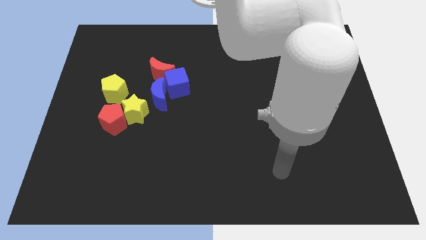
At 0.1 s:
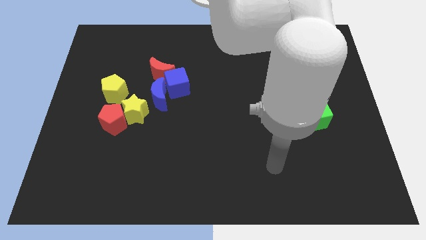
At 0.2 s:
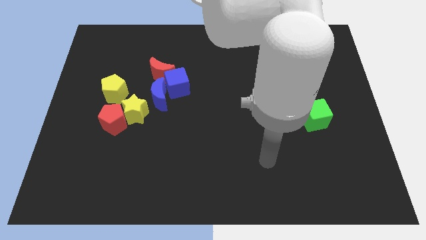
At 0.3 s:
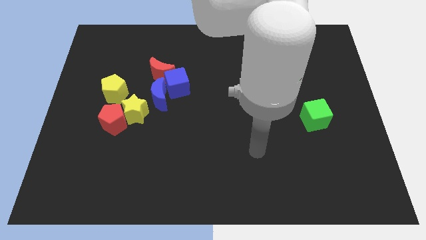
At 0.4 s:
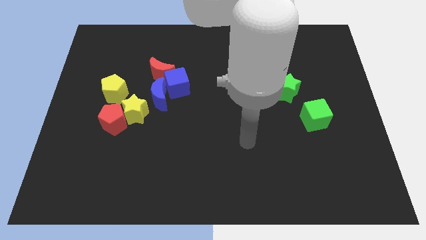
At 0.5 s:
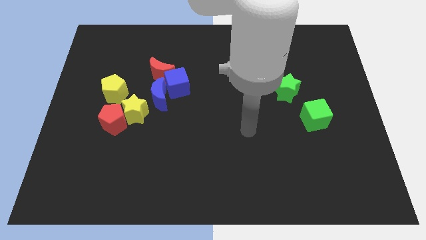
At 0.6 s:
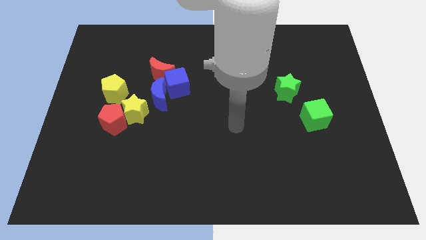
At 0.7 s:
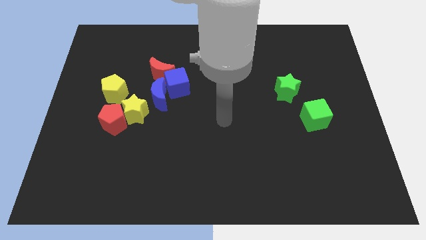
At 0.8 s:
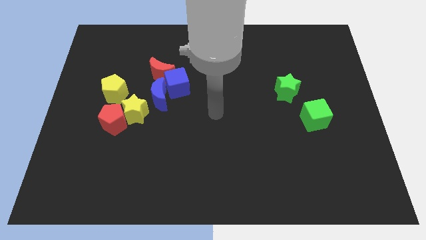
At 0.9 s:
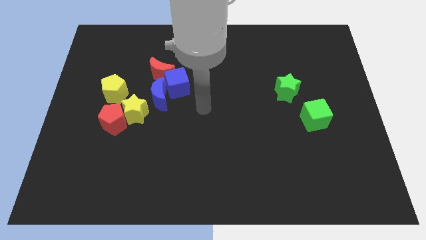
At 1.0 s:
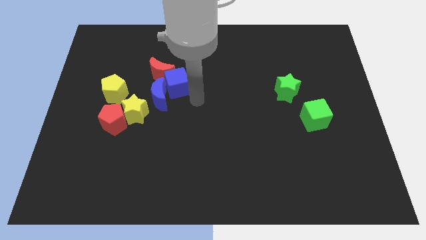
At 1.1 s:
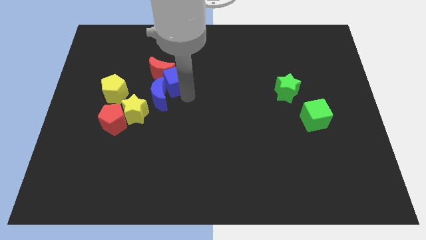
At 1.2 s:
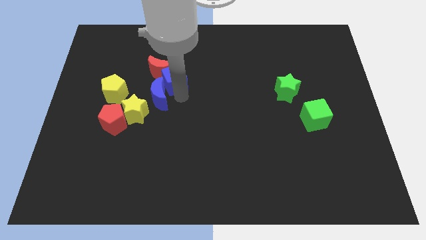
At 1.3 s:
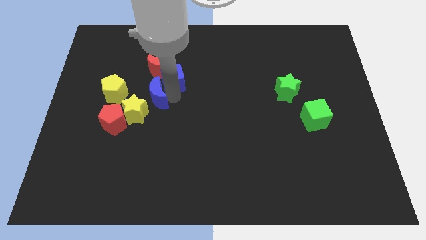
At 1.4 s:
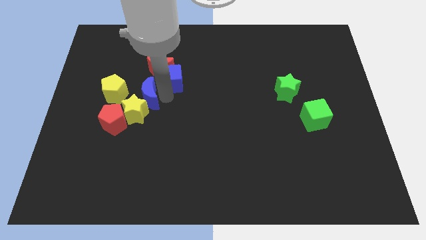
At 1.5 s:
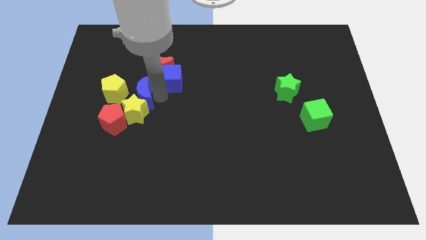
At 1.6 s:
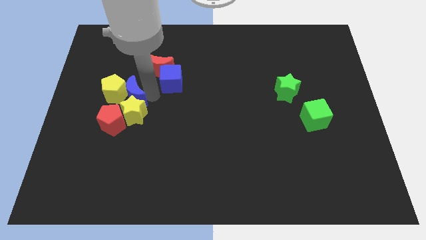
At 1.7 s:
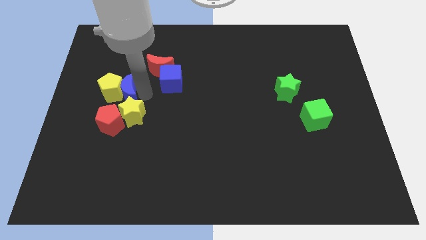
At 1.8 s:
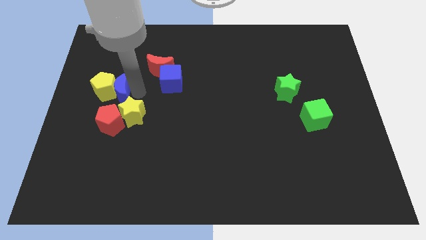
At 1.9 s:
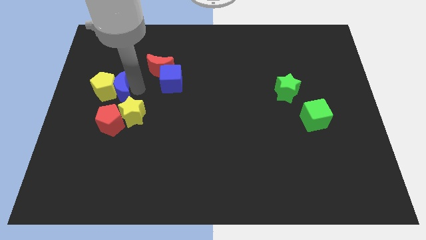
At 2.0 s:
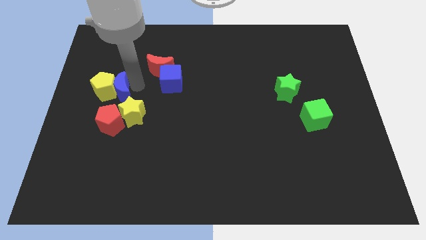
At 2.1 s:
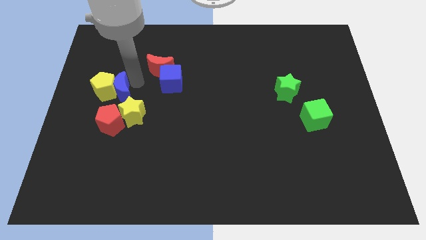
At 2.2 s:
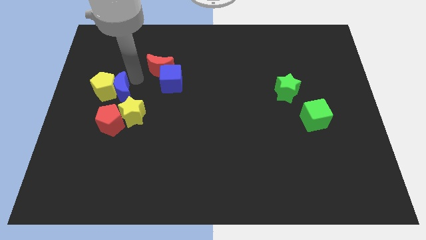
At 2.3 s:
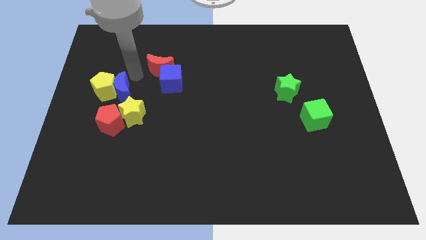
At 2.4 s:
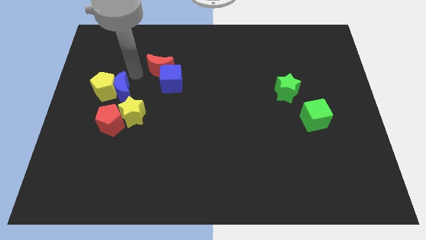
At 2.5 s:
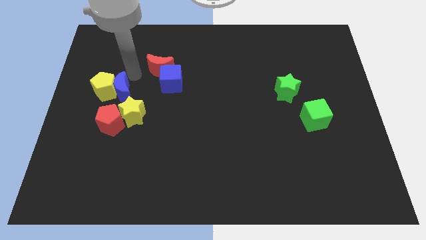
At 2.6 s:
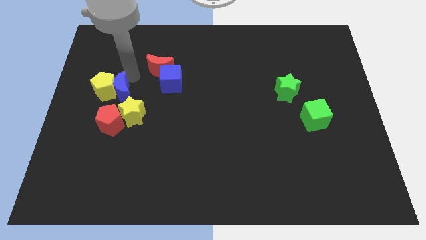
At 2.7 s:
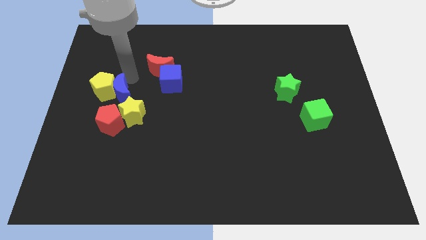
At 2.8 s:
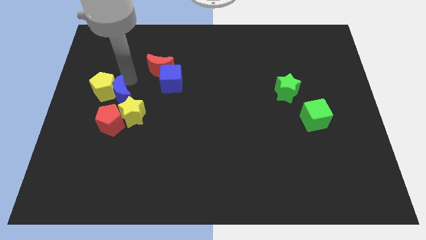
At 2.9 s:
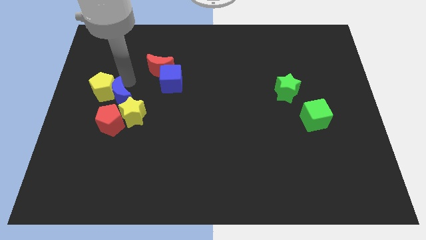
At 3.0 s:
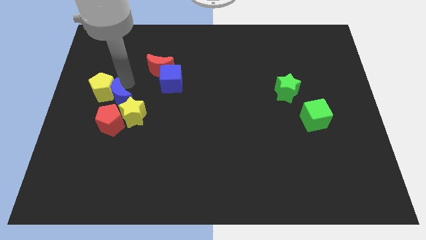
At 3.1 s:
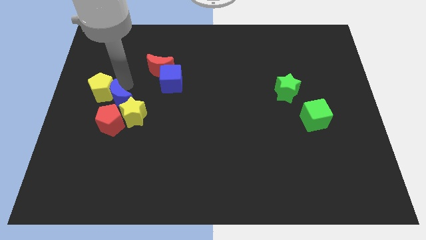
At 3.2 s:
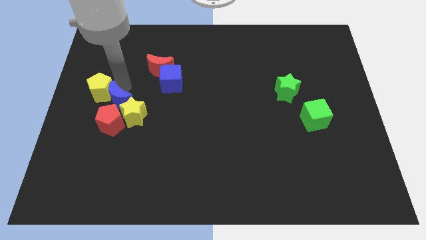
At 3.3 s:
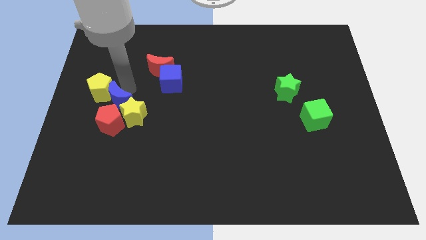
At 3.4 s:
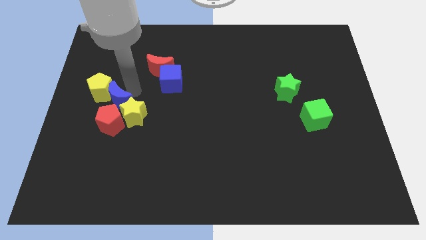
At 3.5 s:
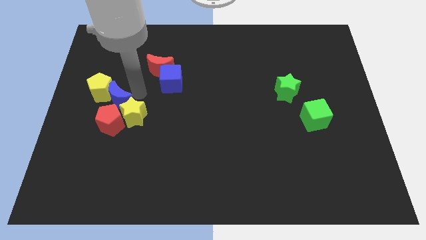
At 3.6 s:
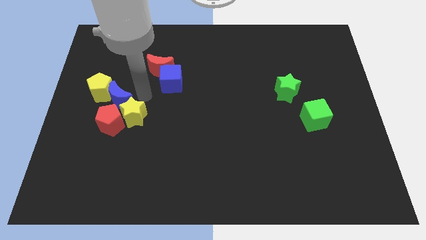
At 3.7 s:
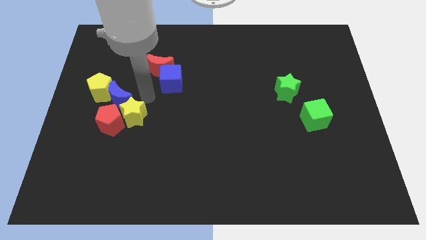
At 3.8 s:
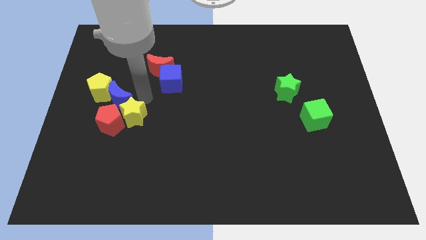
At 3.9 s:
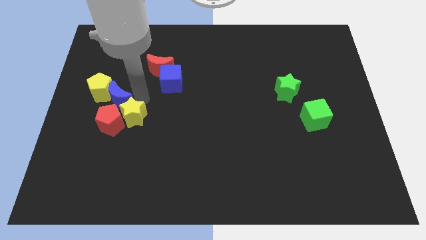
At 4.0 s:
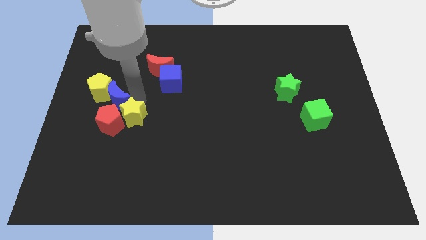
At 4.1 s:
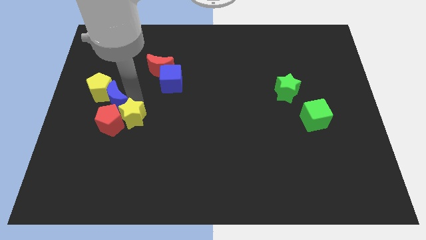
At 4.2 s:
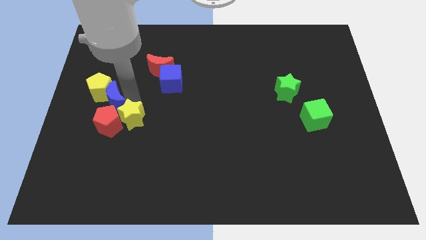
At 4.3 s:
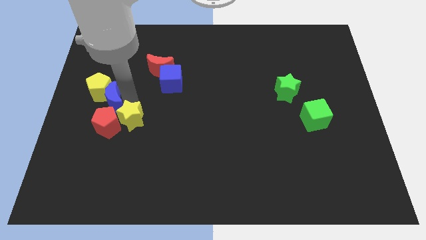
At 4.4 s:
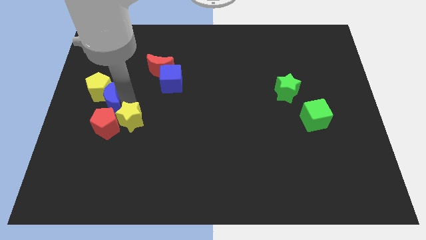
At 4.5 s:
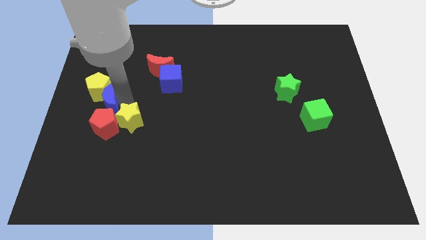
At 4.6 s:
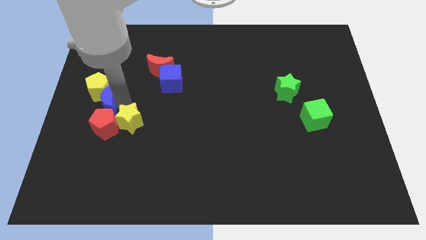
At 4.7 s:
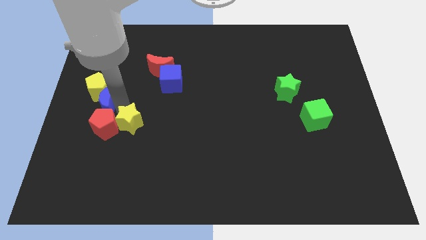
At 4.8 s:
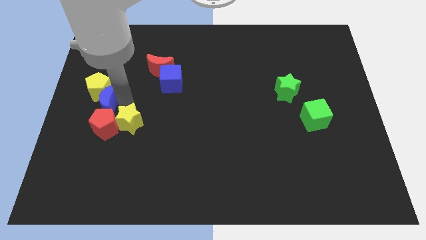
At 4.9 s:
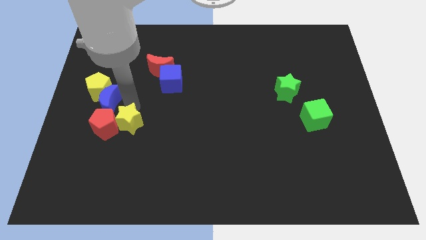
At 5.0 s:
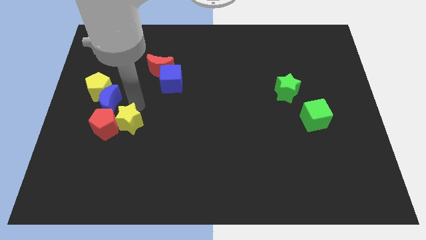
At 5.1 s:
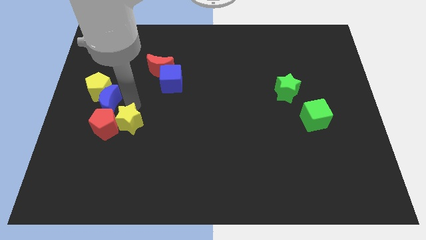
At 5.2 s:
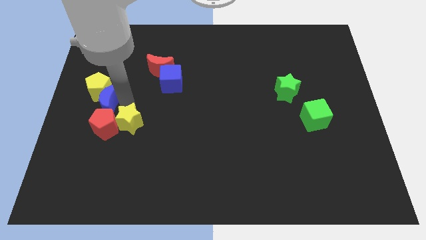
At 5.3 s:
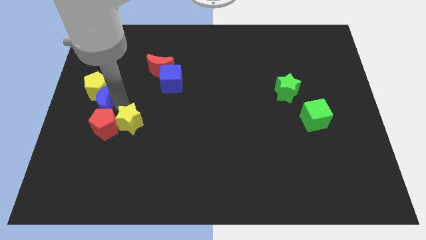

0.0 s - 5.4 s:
put the blue moon to the left side of the board
